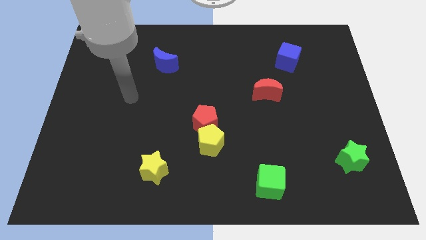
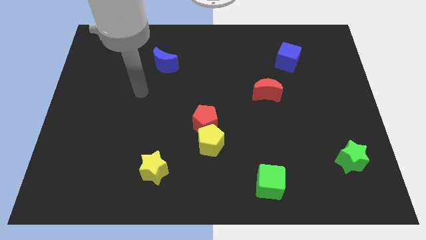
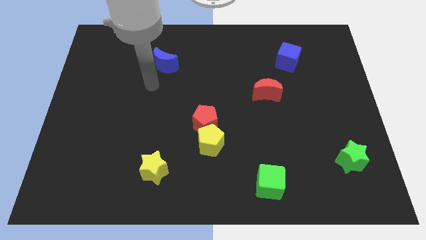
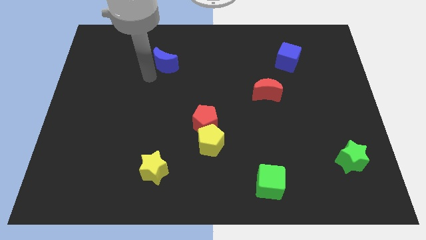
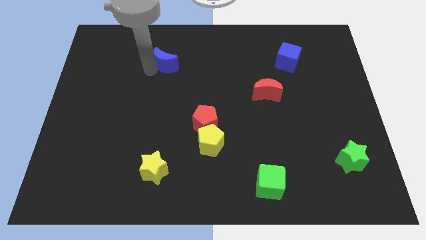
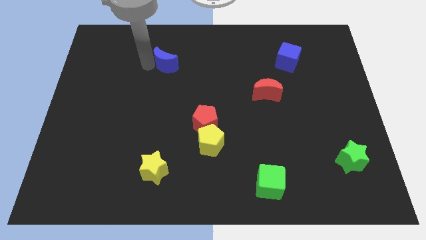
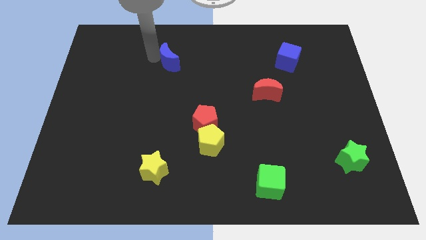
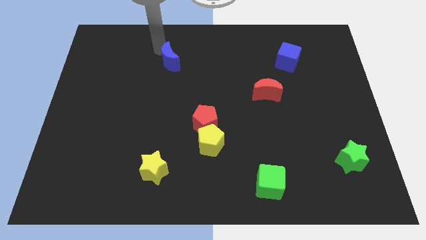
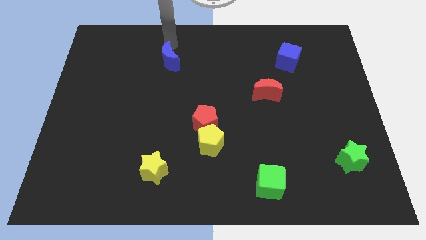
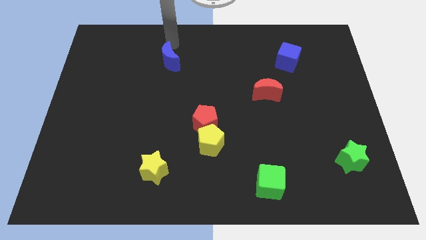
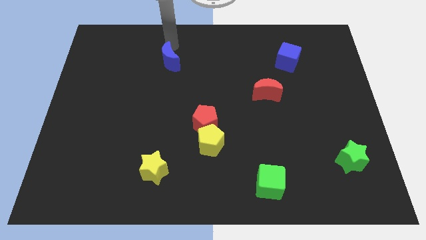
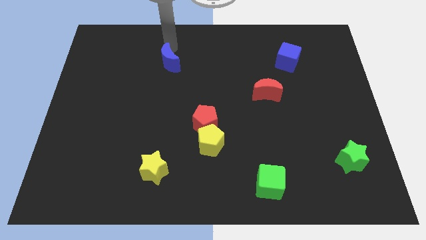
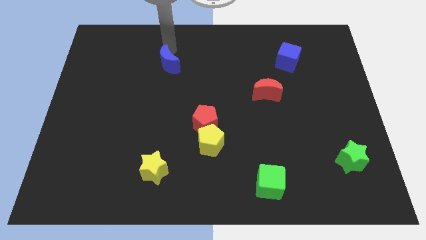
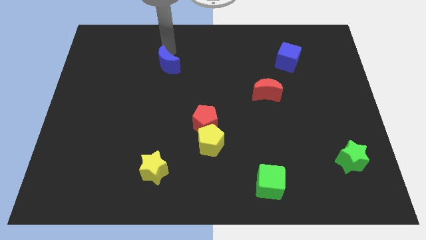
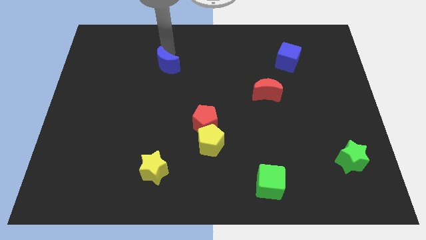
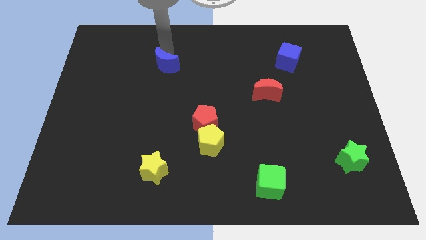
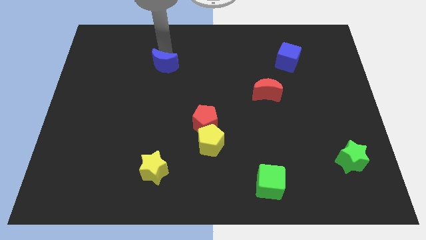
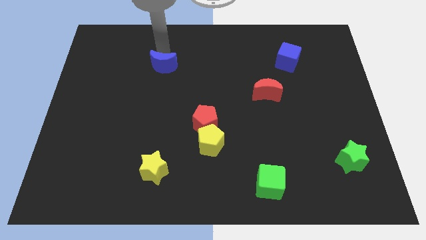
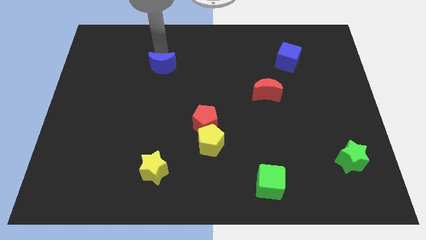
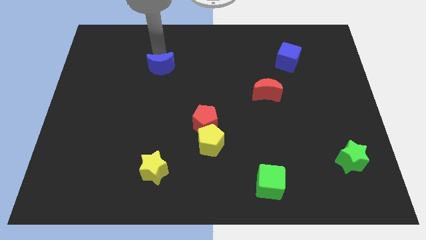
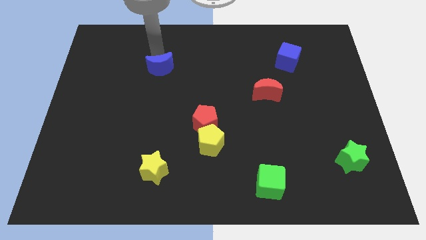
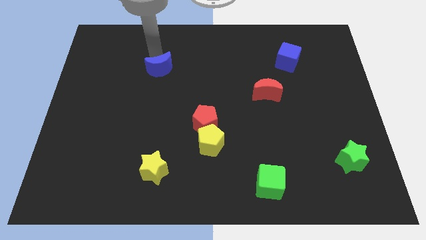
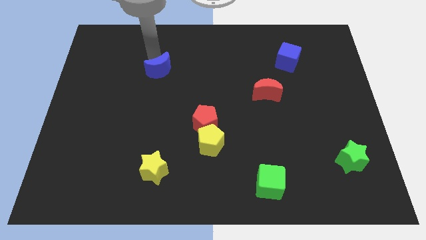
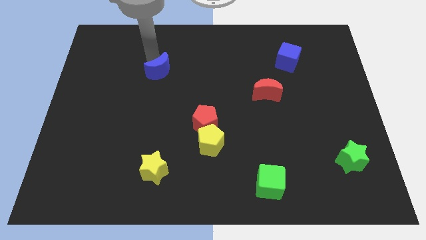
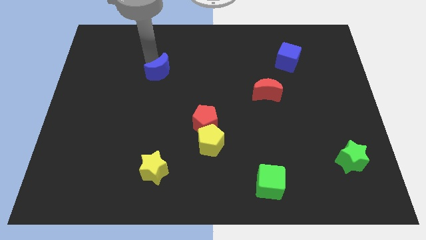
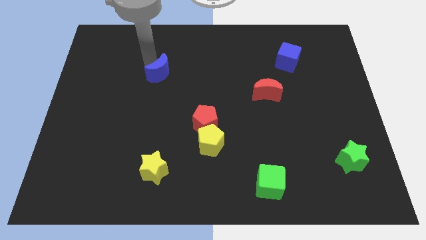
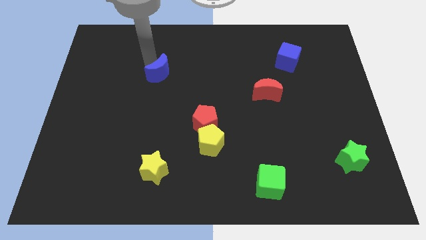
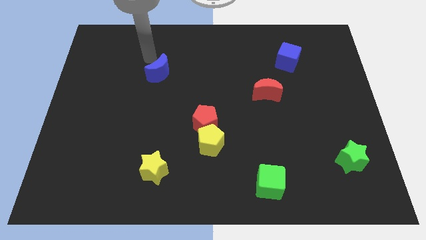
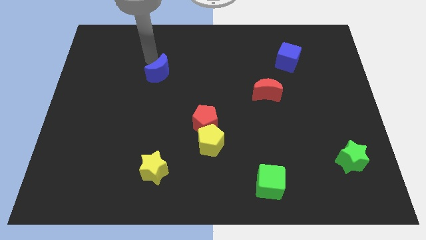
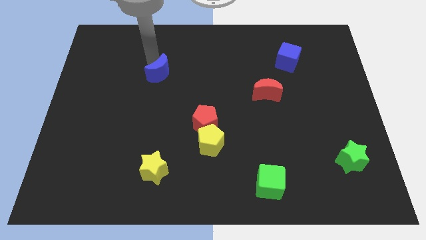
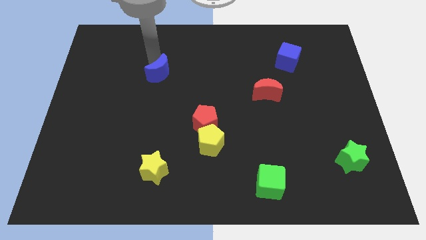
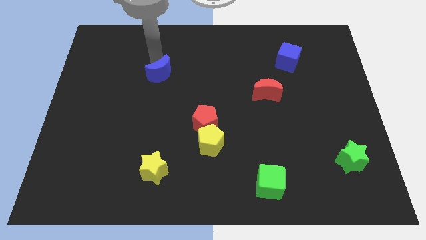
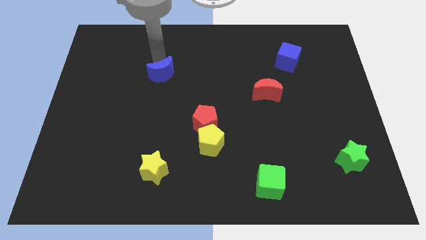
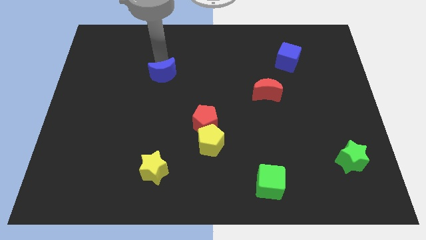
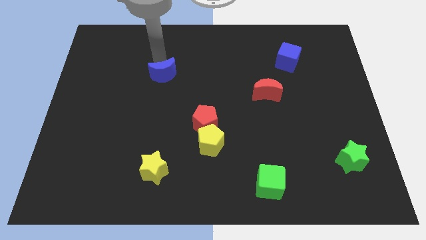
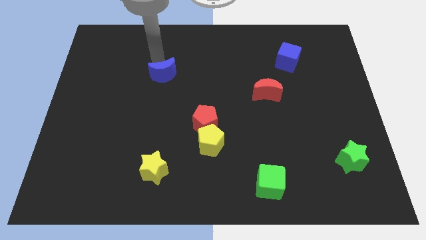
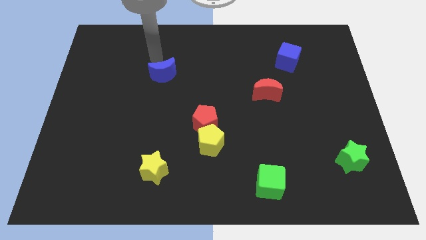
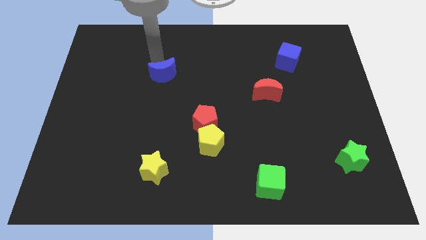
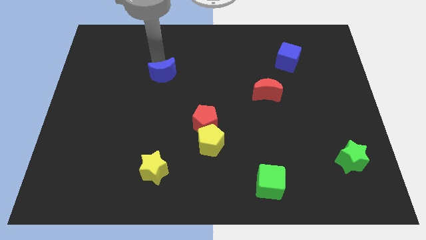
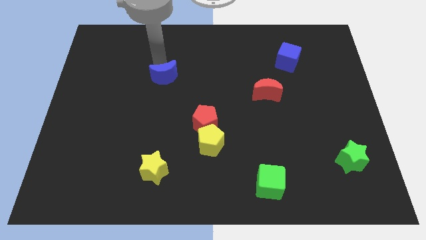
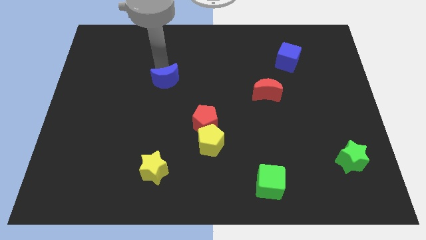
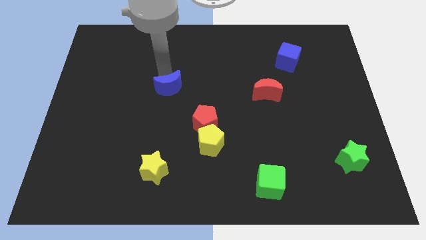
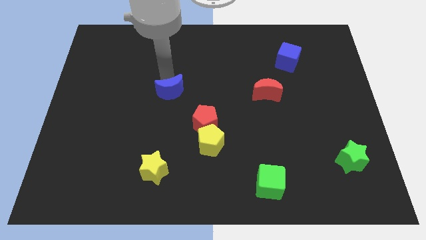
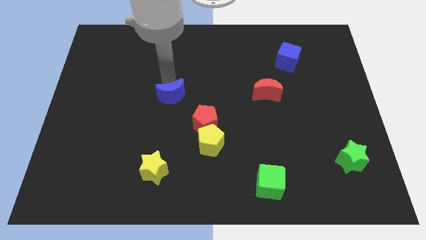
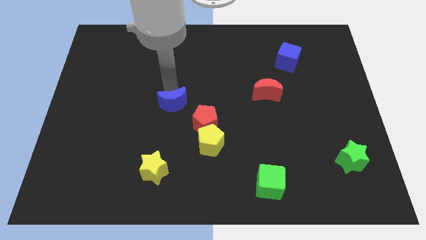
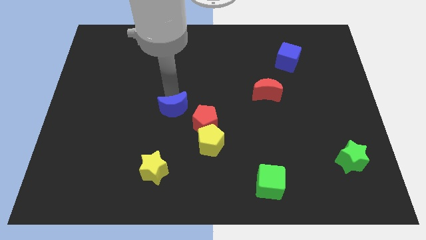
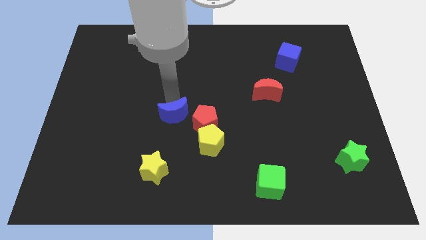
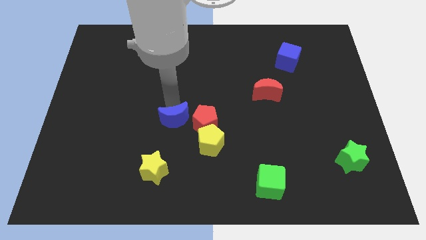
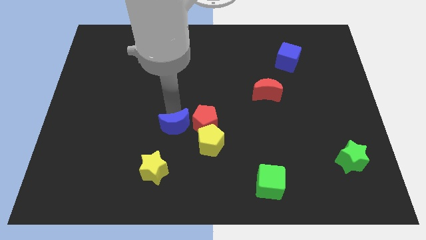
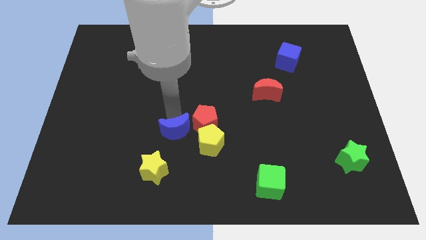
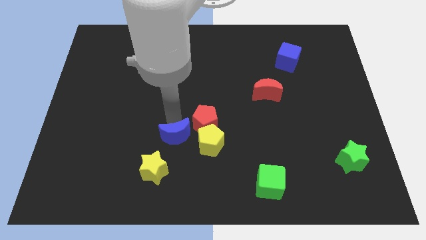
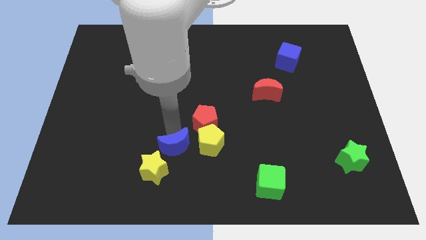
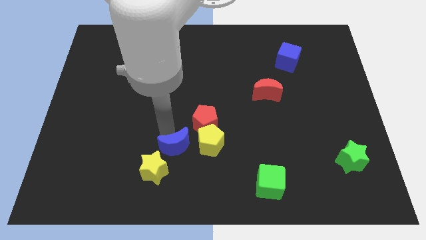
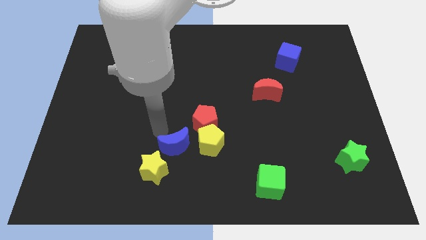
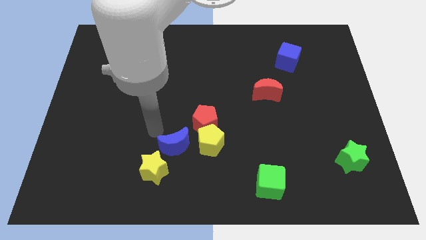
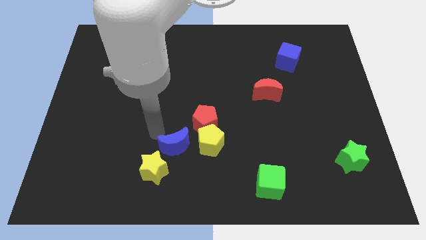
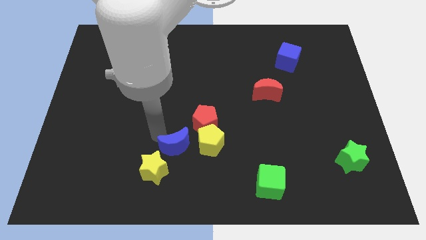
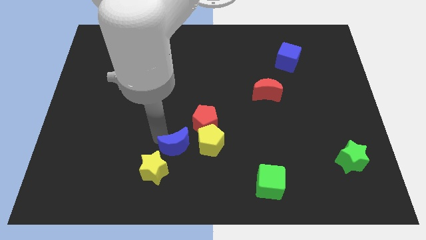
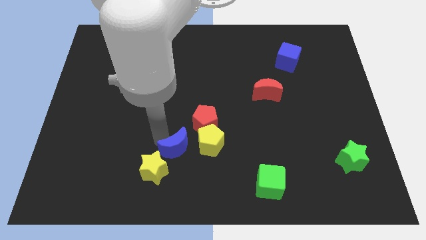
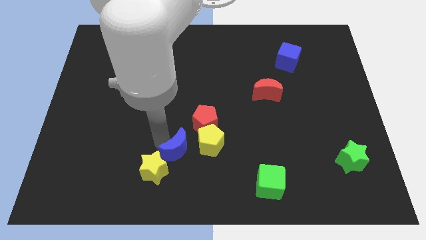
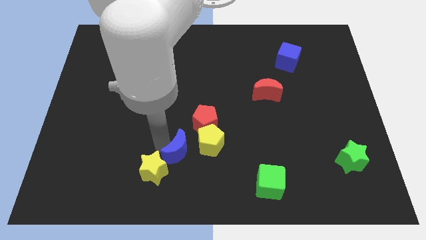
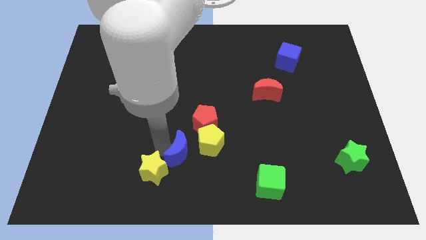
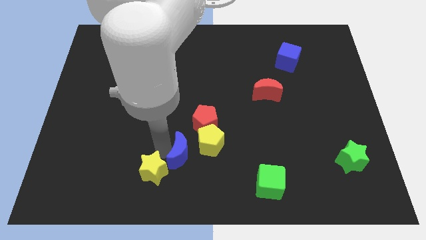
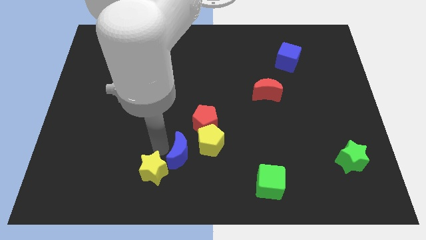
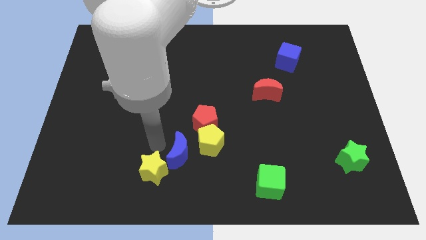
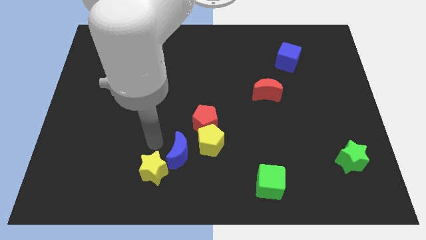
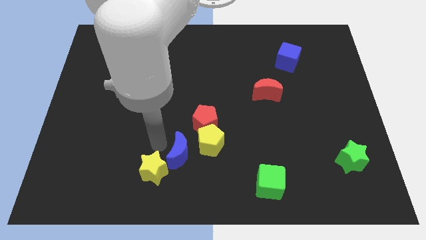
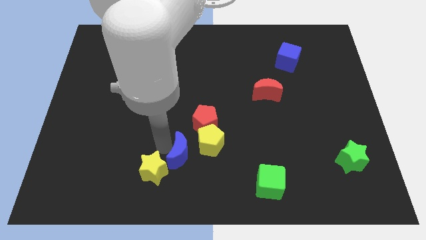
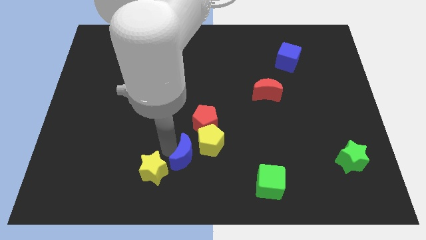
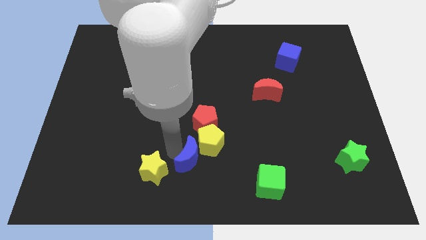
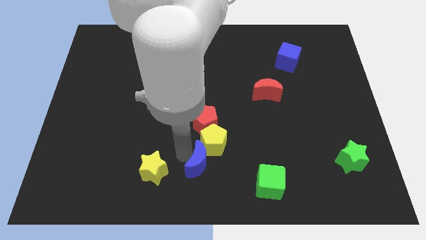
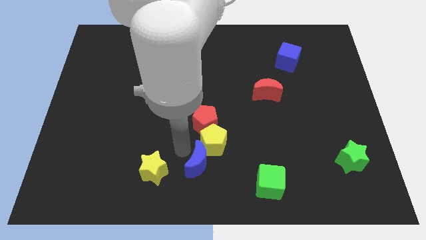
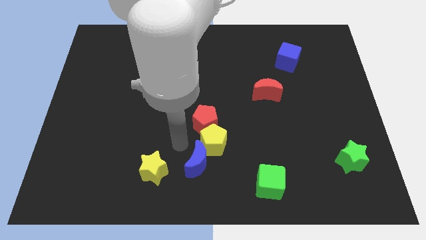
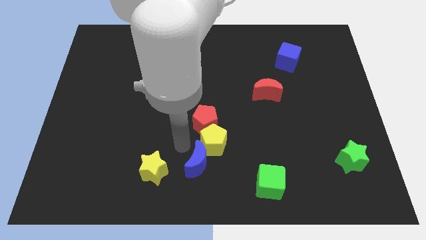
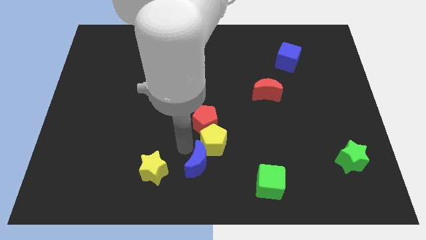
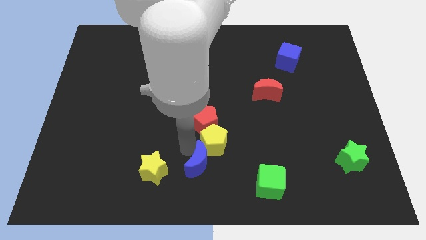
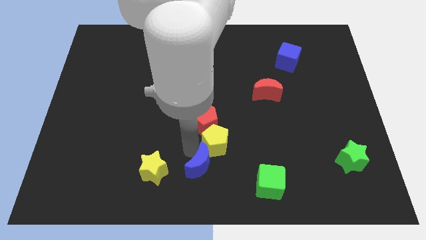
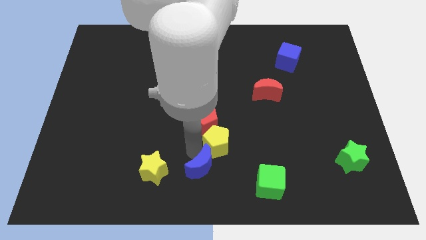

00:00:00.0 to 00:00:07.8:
push the blue moon to the left of the green cube

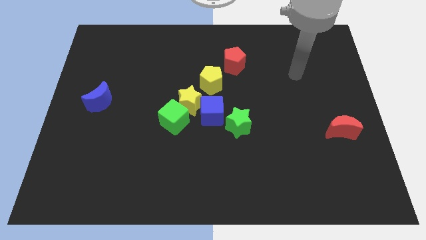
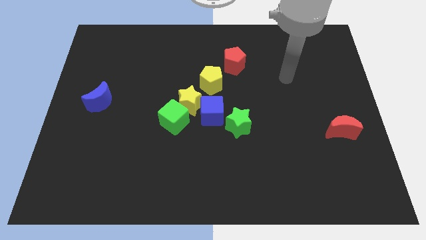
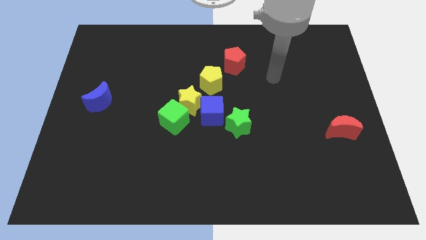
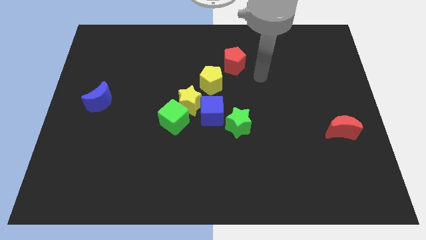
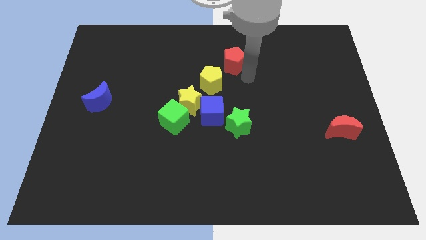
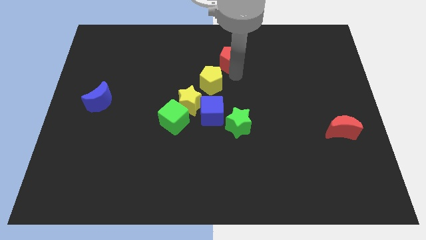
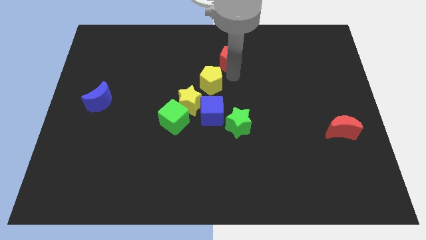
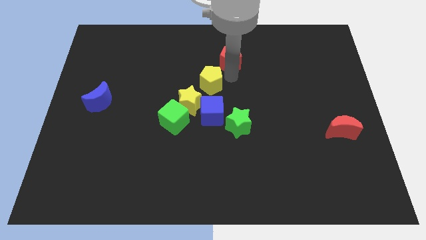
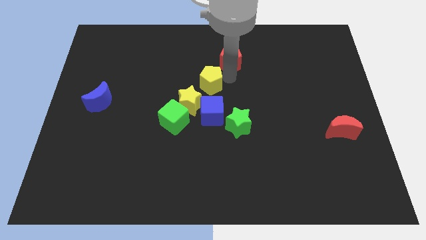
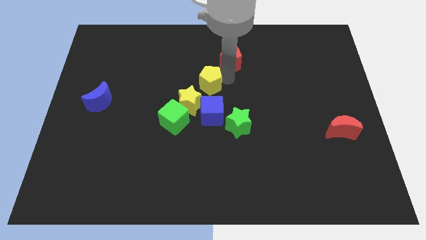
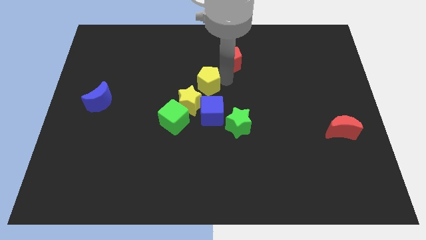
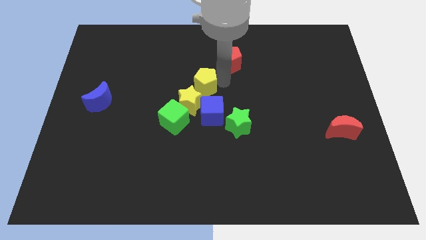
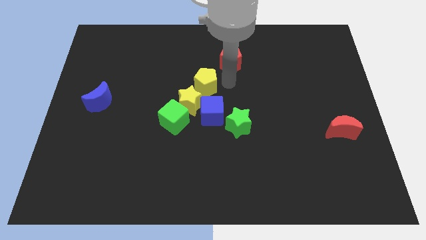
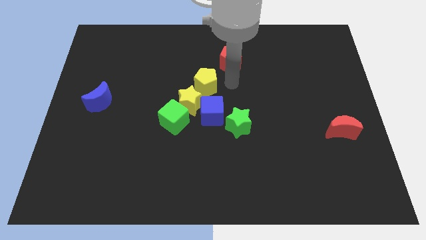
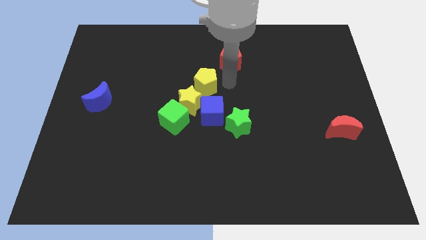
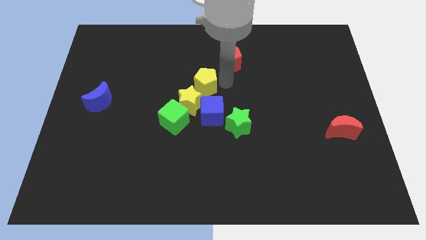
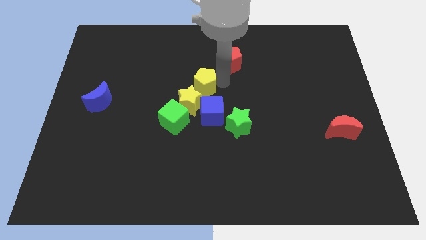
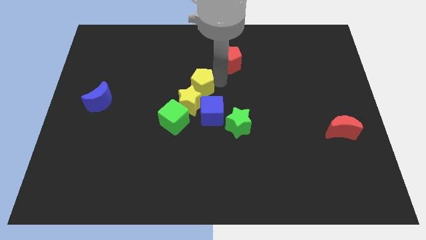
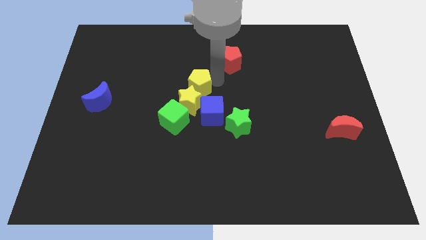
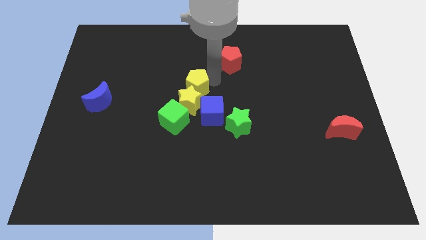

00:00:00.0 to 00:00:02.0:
slide the yellow pentagon to the top of the green cube
